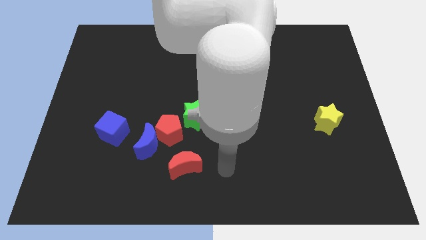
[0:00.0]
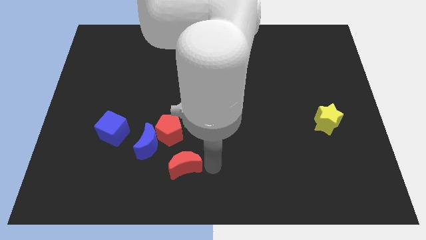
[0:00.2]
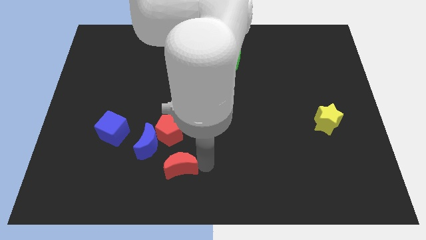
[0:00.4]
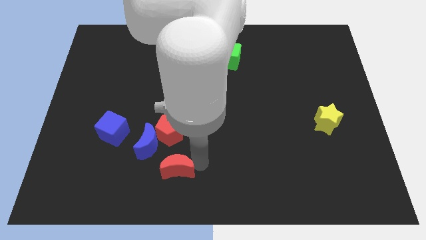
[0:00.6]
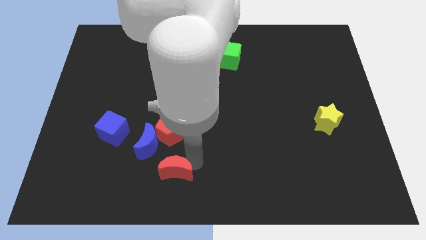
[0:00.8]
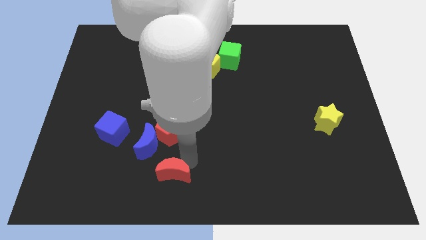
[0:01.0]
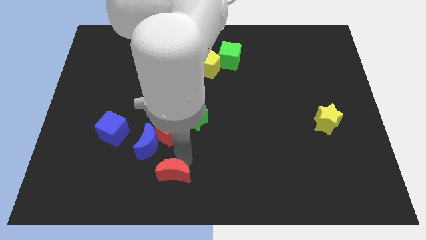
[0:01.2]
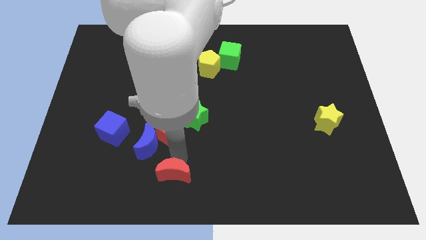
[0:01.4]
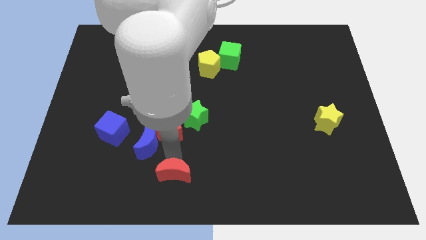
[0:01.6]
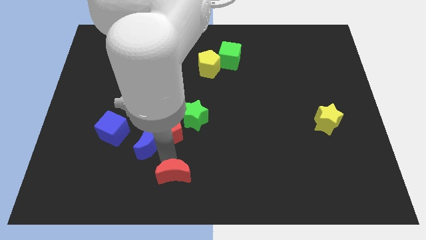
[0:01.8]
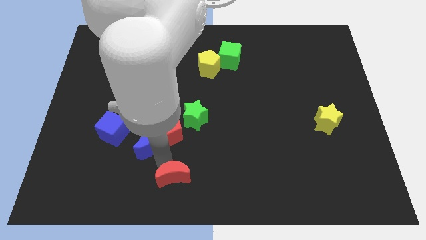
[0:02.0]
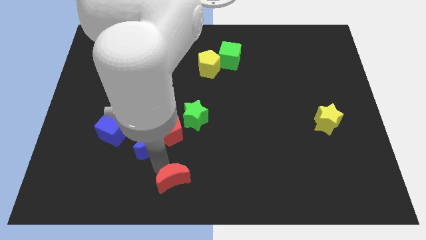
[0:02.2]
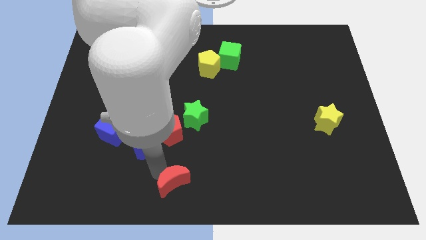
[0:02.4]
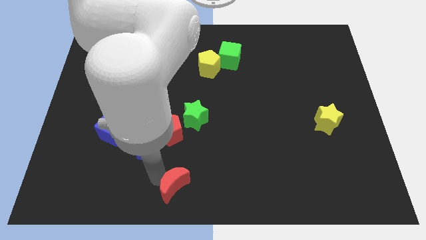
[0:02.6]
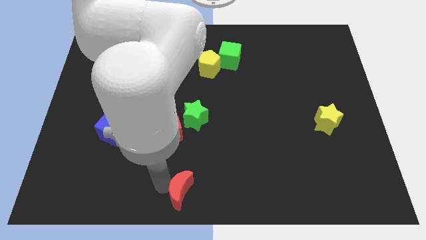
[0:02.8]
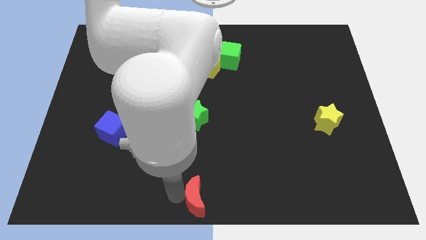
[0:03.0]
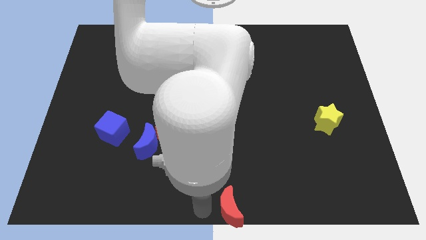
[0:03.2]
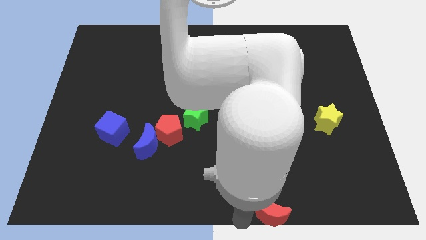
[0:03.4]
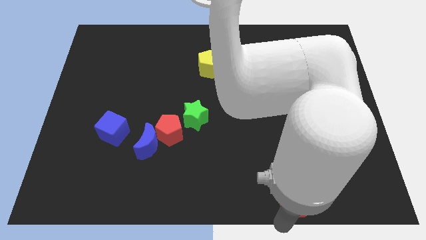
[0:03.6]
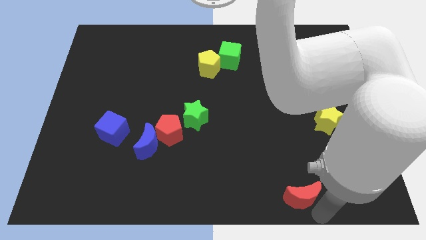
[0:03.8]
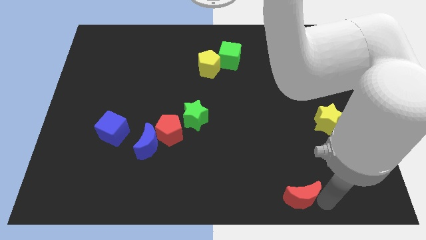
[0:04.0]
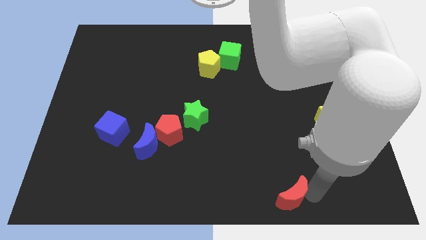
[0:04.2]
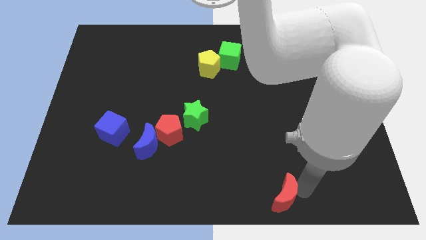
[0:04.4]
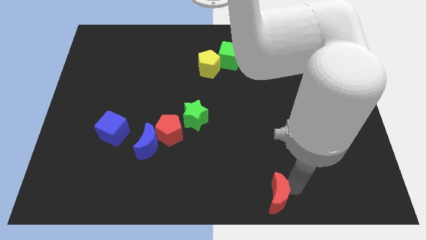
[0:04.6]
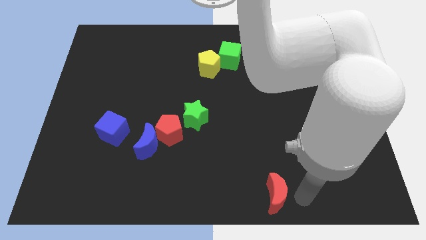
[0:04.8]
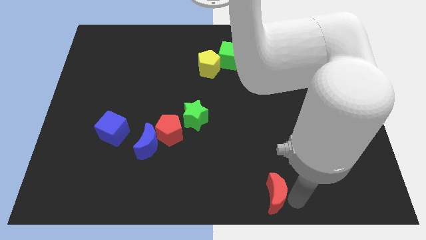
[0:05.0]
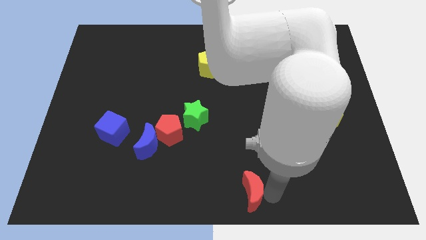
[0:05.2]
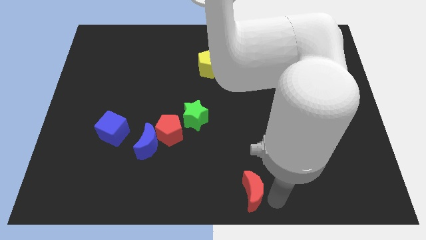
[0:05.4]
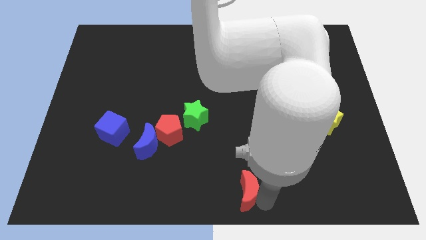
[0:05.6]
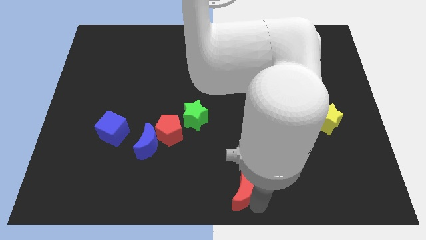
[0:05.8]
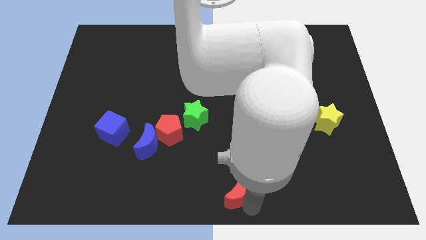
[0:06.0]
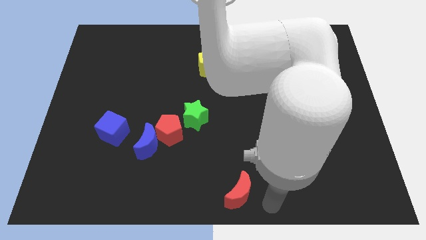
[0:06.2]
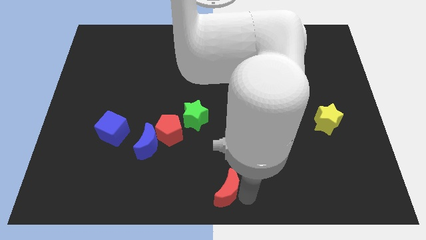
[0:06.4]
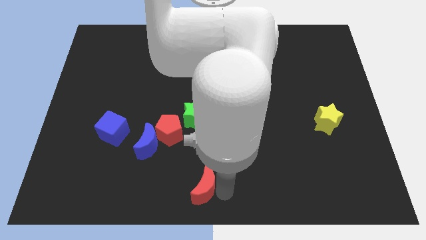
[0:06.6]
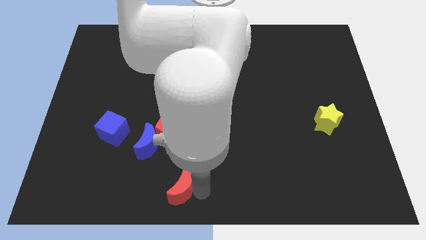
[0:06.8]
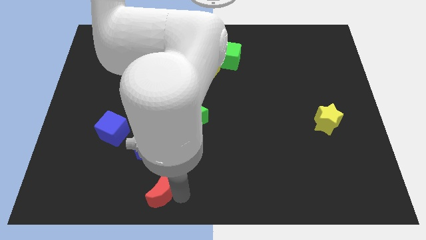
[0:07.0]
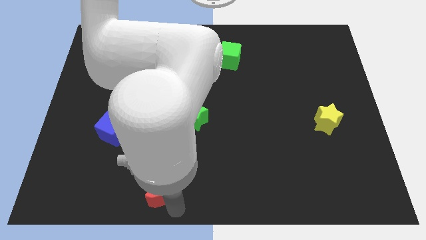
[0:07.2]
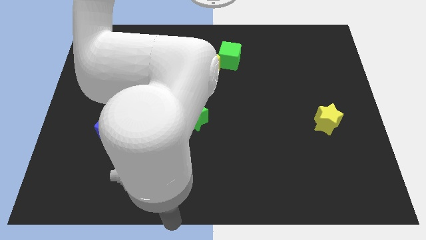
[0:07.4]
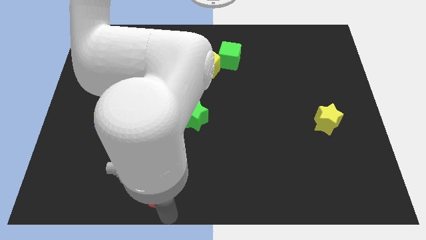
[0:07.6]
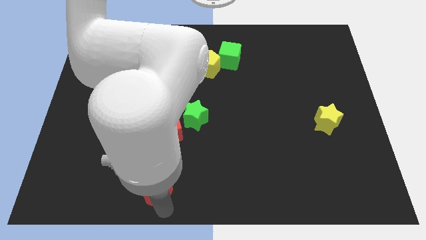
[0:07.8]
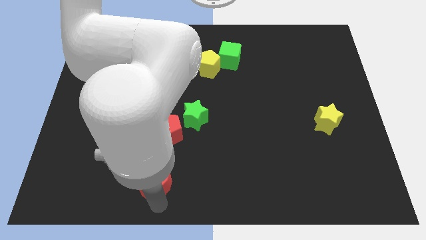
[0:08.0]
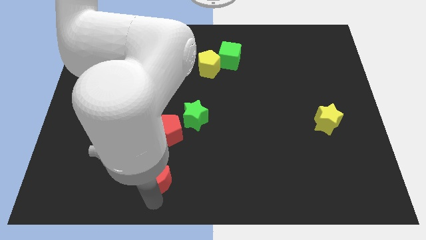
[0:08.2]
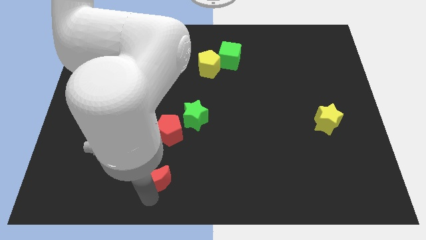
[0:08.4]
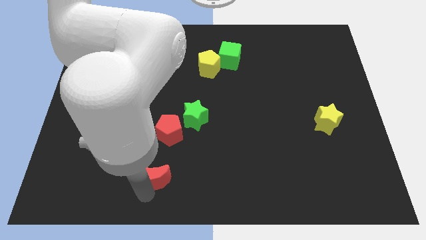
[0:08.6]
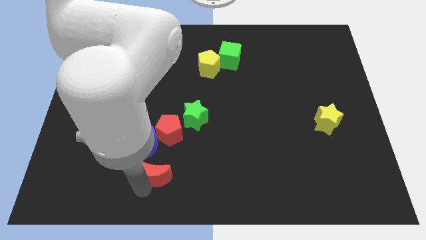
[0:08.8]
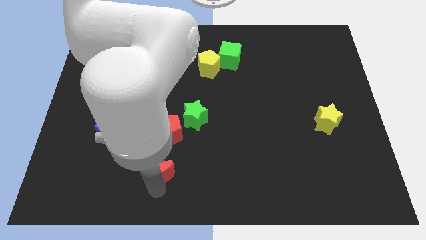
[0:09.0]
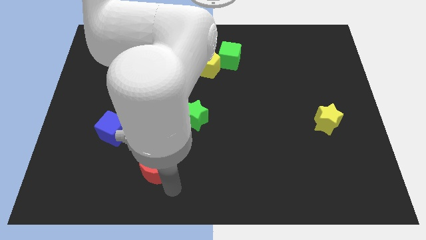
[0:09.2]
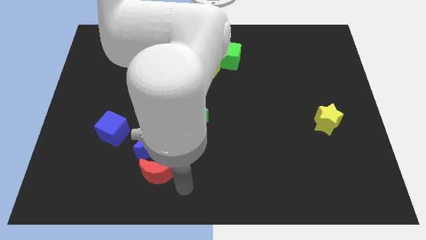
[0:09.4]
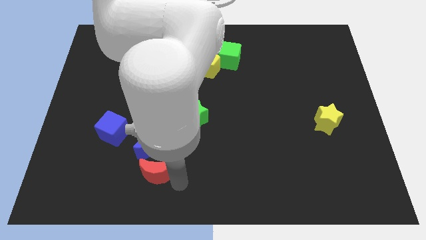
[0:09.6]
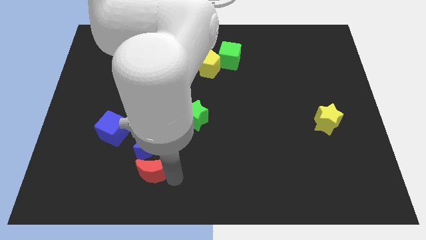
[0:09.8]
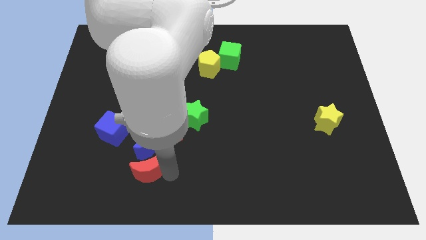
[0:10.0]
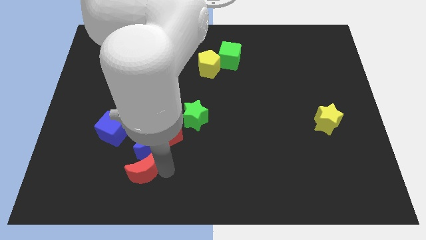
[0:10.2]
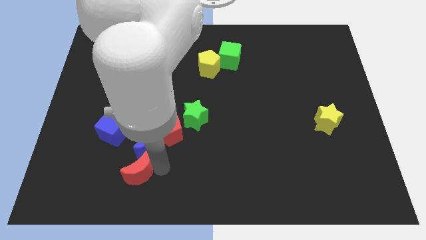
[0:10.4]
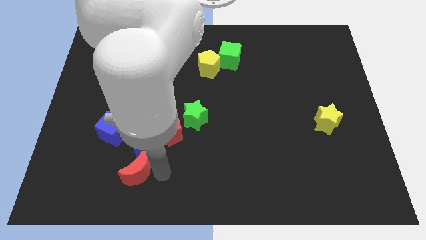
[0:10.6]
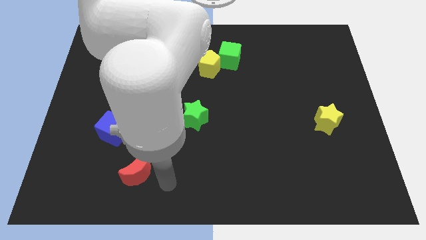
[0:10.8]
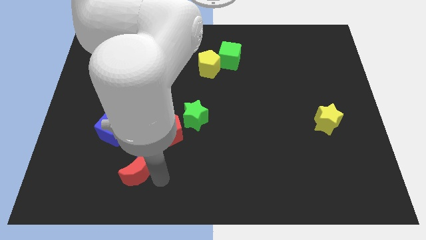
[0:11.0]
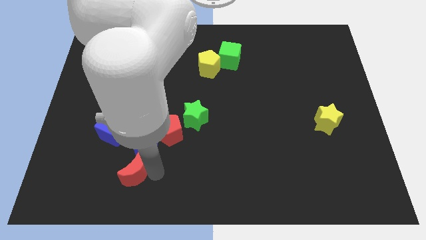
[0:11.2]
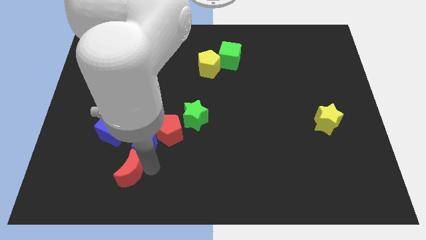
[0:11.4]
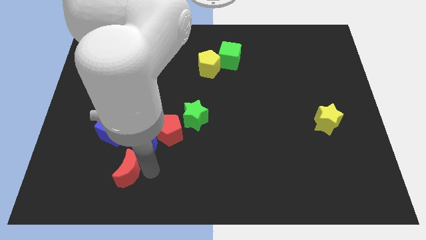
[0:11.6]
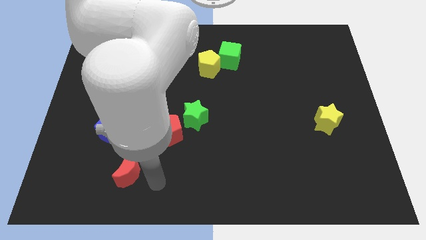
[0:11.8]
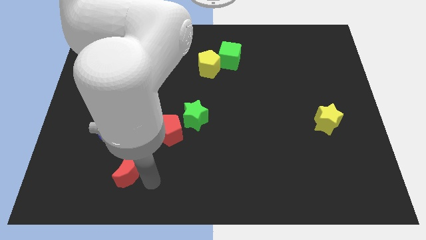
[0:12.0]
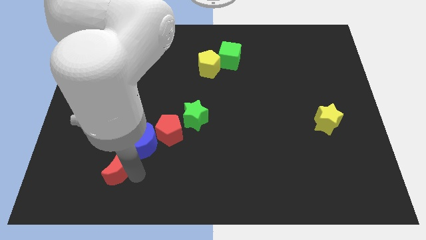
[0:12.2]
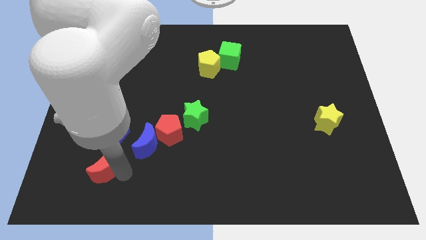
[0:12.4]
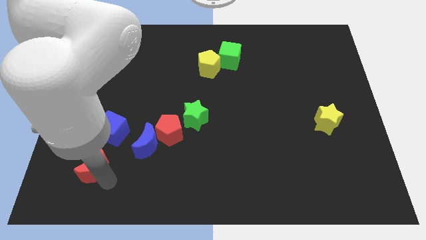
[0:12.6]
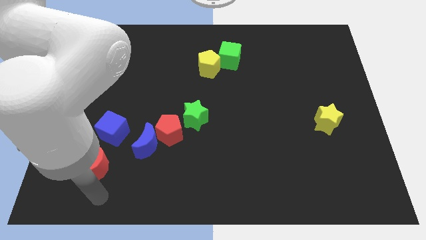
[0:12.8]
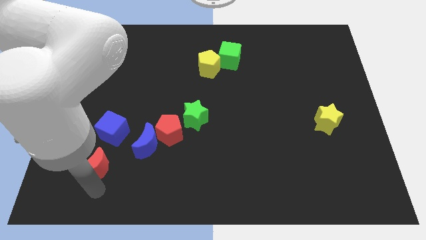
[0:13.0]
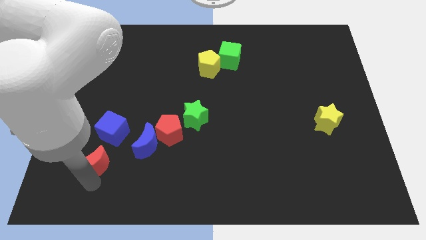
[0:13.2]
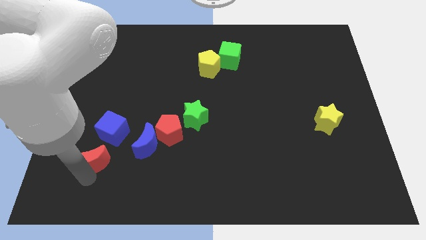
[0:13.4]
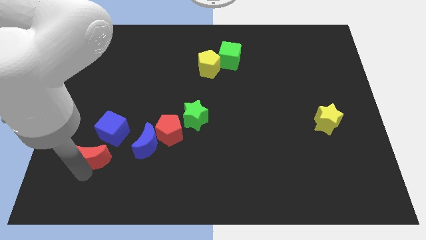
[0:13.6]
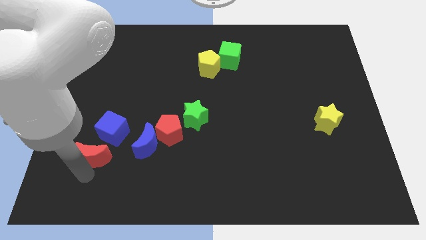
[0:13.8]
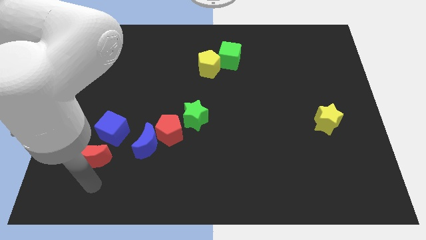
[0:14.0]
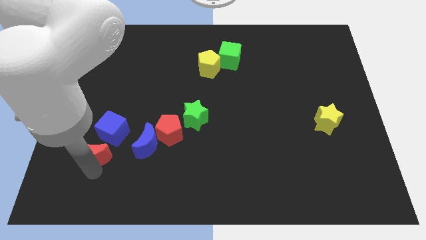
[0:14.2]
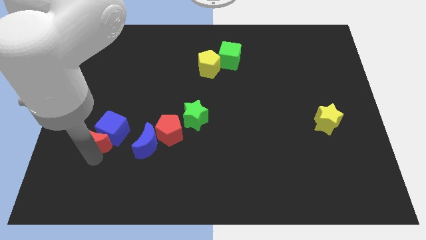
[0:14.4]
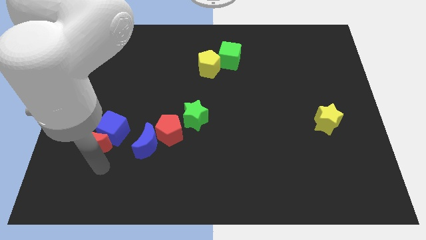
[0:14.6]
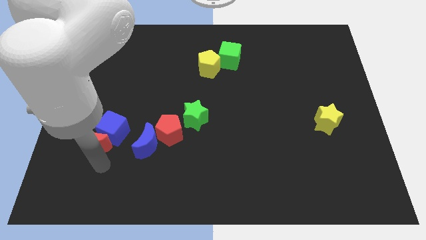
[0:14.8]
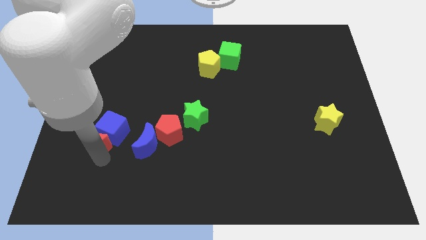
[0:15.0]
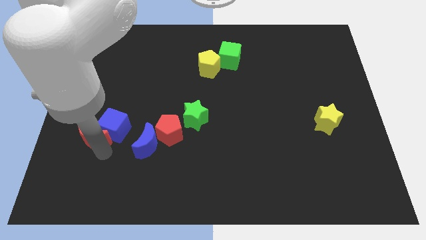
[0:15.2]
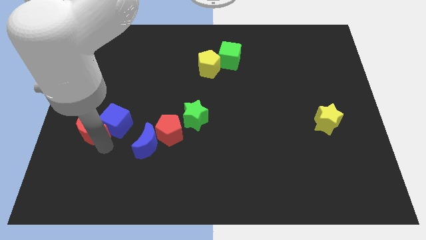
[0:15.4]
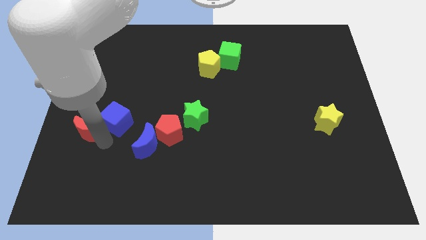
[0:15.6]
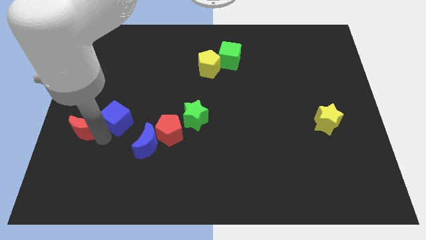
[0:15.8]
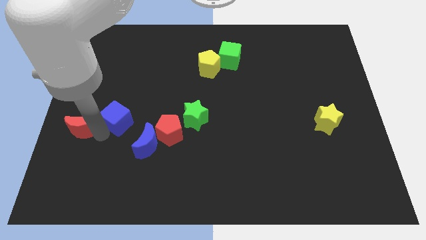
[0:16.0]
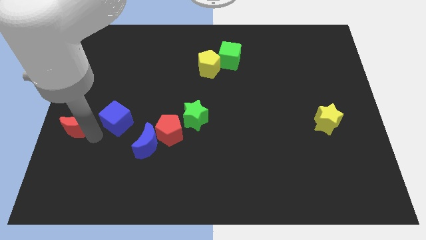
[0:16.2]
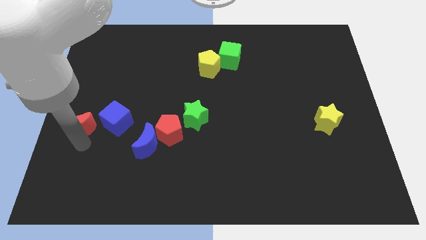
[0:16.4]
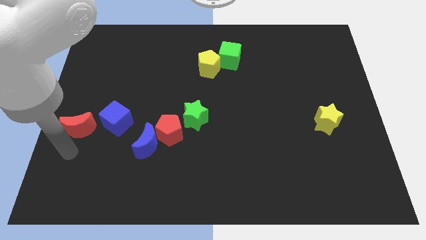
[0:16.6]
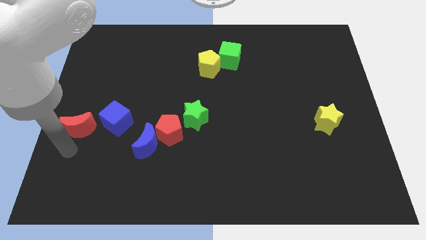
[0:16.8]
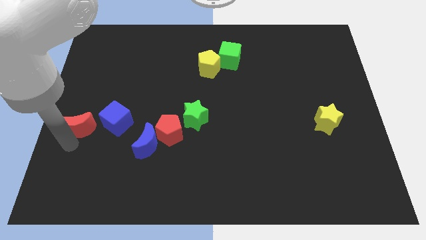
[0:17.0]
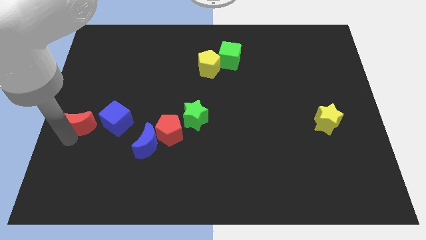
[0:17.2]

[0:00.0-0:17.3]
move the red moon up and then to the left
